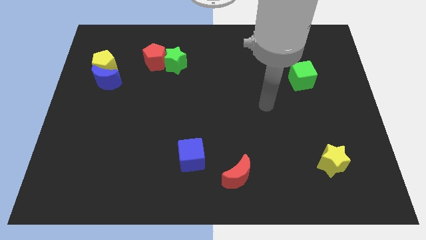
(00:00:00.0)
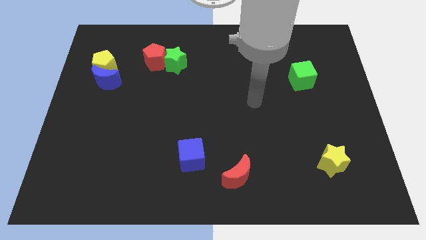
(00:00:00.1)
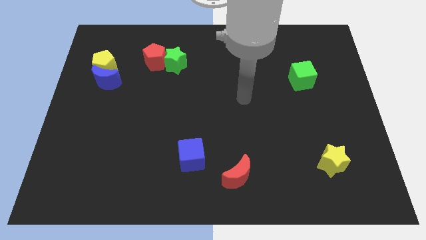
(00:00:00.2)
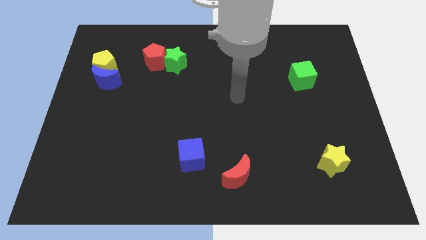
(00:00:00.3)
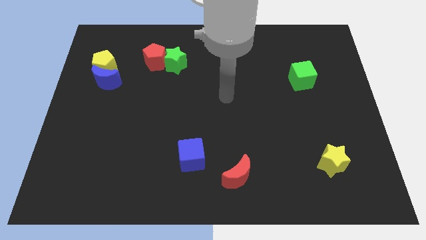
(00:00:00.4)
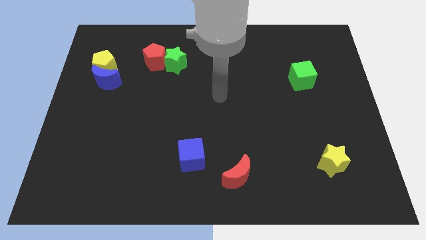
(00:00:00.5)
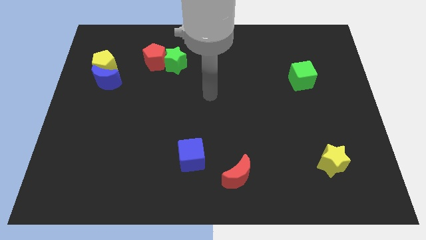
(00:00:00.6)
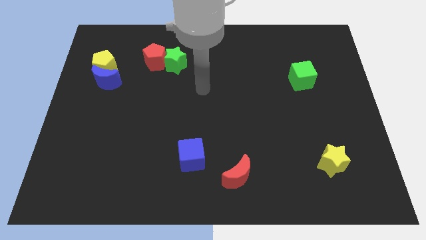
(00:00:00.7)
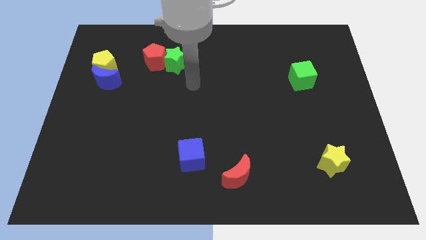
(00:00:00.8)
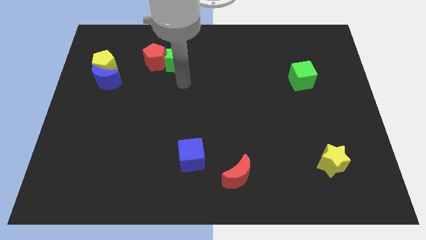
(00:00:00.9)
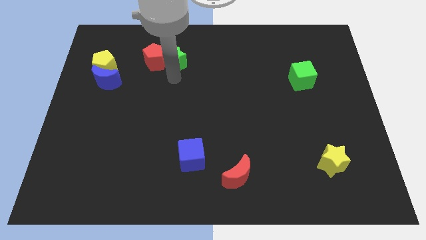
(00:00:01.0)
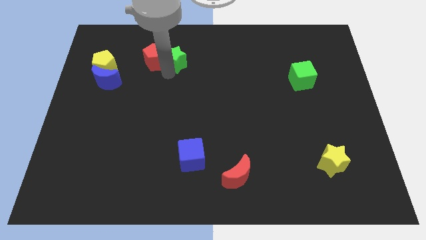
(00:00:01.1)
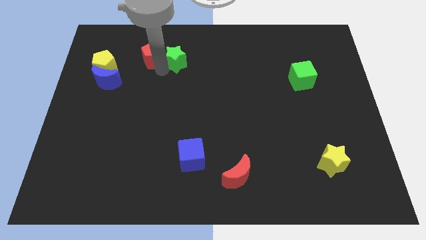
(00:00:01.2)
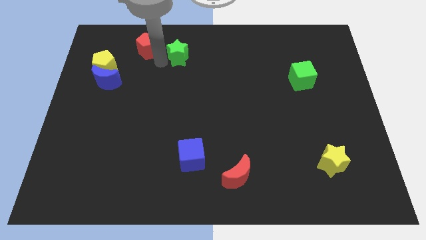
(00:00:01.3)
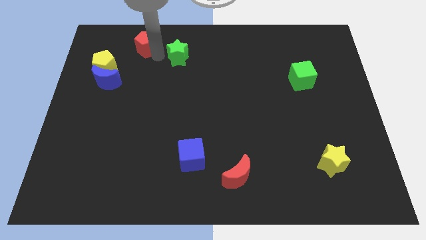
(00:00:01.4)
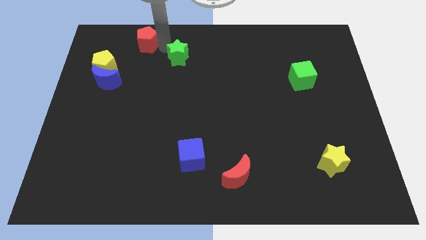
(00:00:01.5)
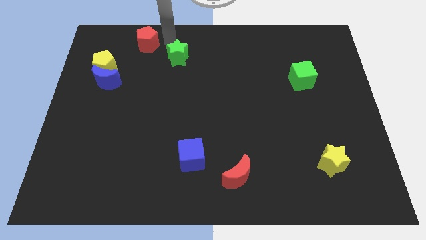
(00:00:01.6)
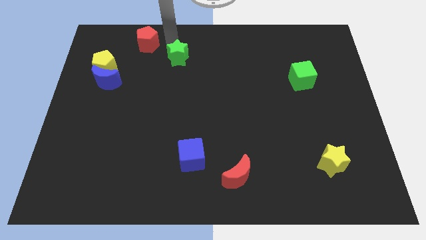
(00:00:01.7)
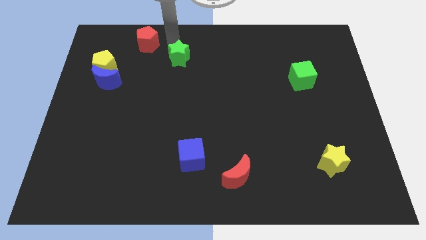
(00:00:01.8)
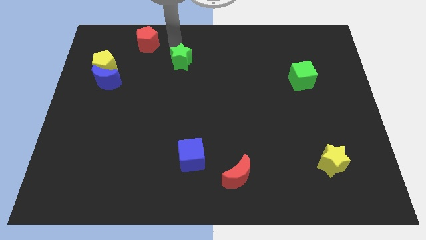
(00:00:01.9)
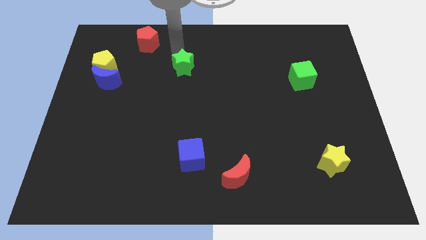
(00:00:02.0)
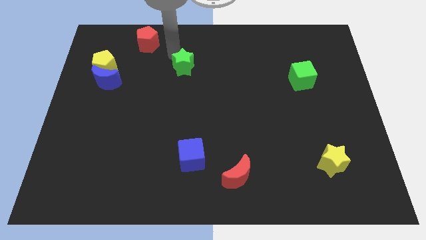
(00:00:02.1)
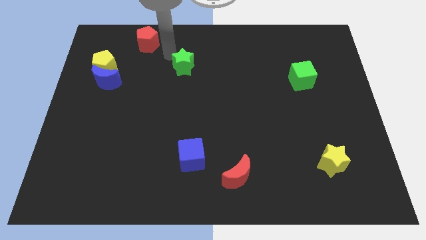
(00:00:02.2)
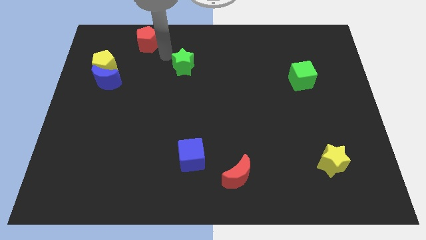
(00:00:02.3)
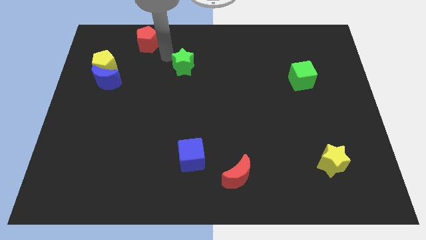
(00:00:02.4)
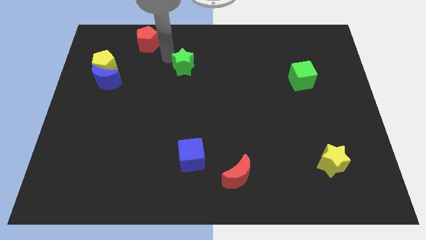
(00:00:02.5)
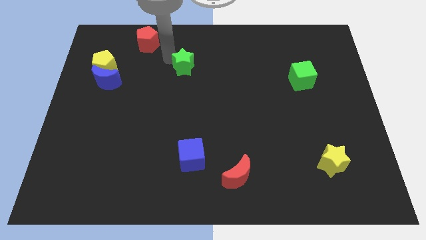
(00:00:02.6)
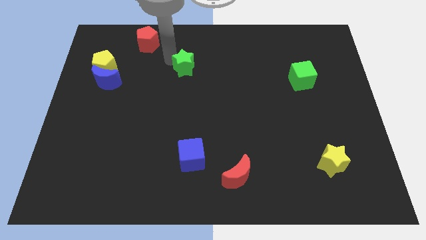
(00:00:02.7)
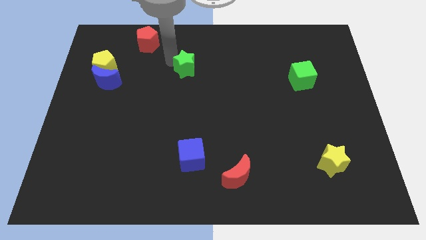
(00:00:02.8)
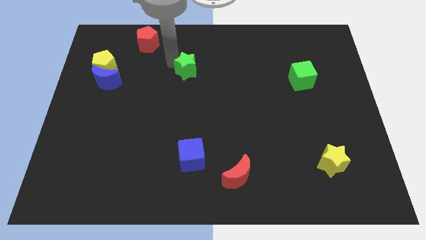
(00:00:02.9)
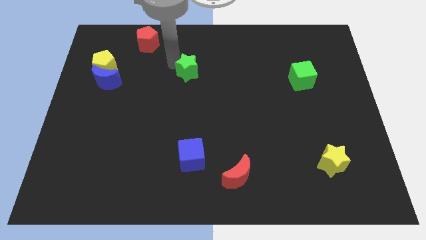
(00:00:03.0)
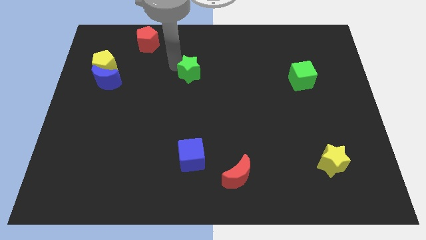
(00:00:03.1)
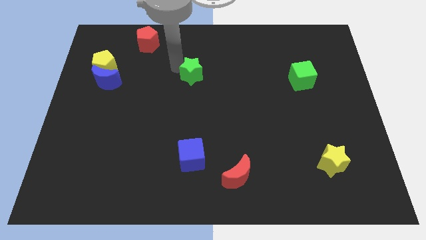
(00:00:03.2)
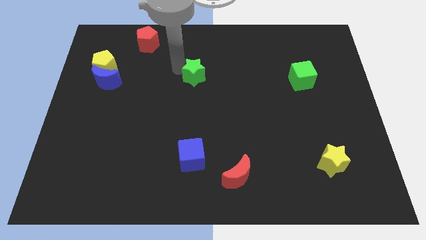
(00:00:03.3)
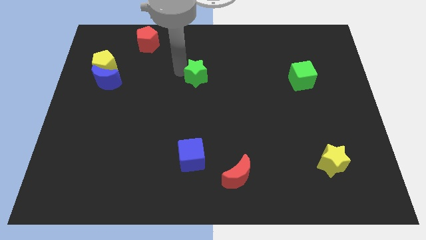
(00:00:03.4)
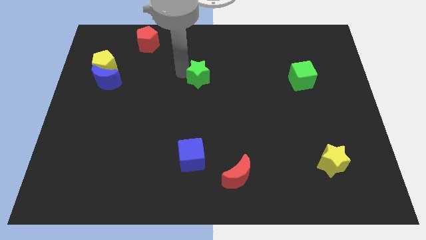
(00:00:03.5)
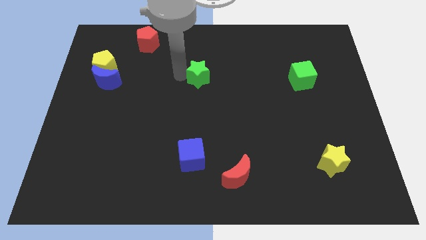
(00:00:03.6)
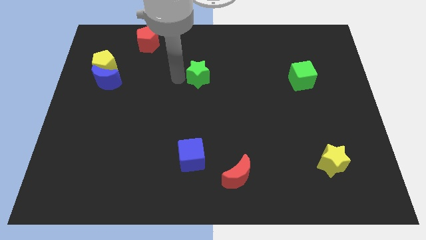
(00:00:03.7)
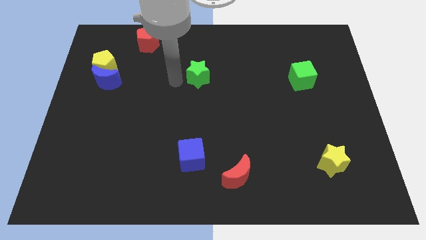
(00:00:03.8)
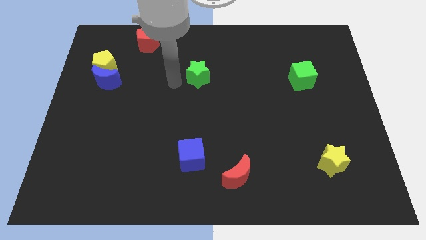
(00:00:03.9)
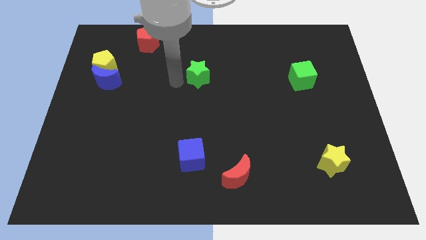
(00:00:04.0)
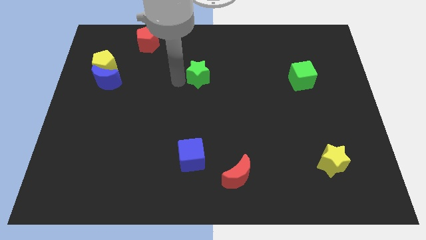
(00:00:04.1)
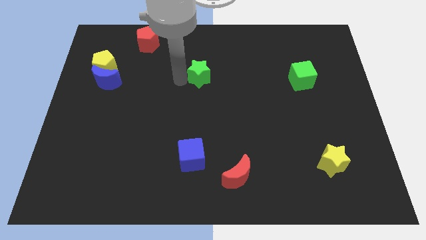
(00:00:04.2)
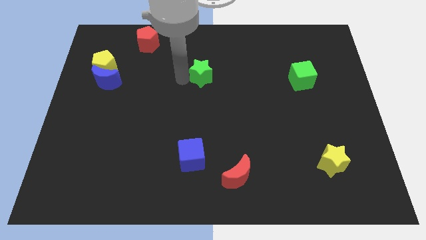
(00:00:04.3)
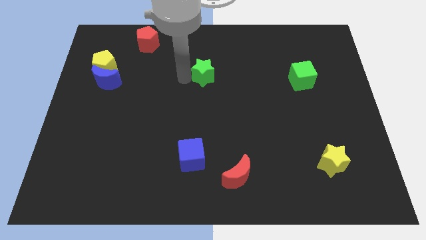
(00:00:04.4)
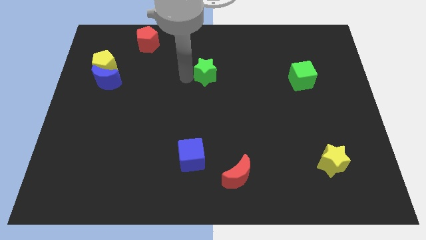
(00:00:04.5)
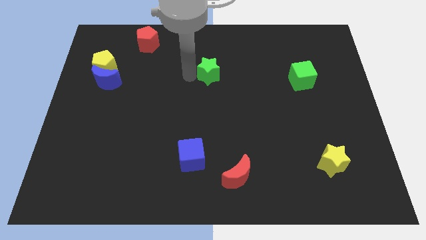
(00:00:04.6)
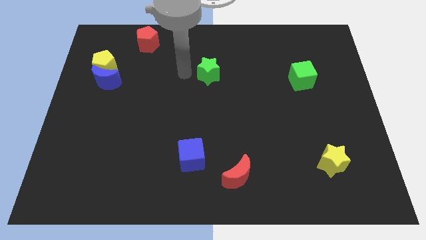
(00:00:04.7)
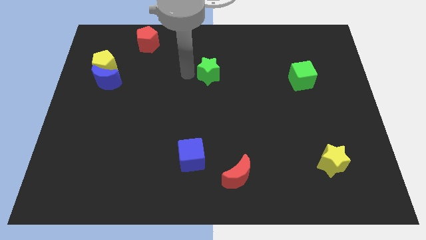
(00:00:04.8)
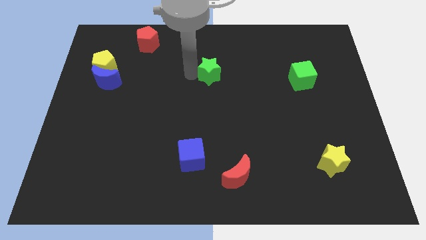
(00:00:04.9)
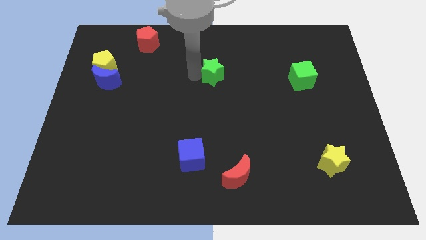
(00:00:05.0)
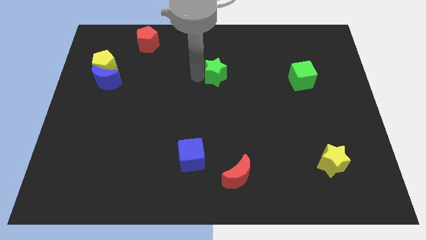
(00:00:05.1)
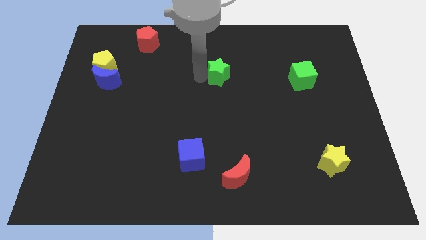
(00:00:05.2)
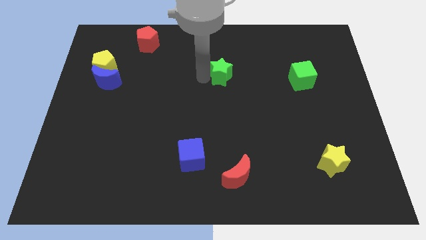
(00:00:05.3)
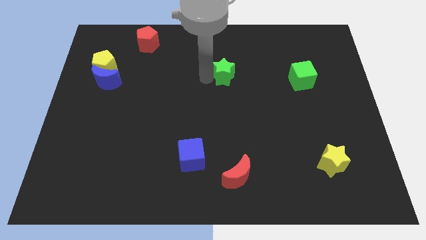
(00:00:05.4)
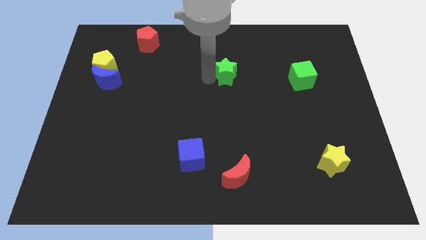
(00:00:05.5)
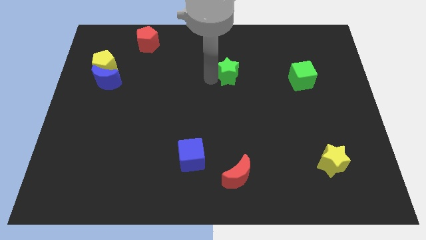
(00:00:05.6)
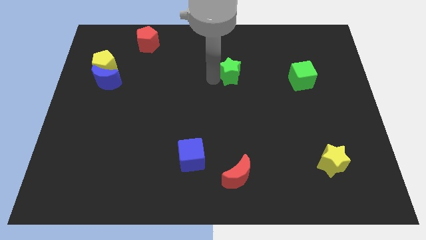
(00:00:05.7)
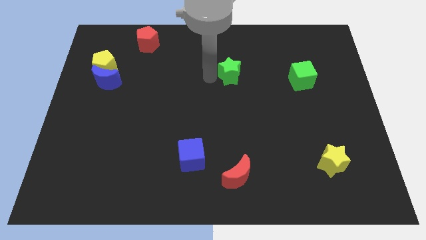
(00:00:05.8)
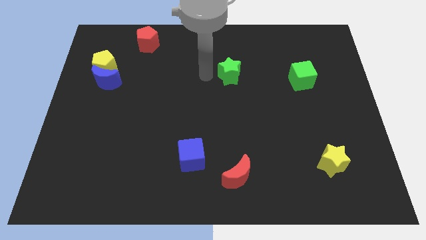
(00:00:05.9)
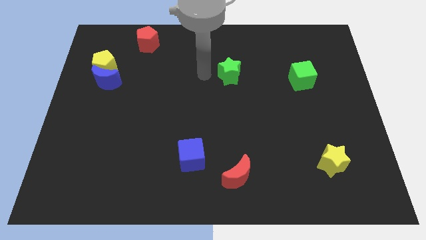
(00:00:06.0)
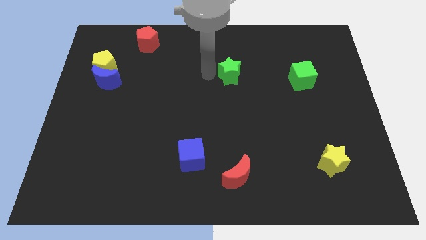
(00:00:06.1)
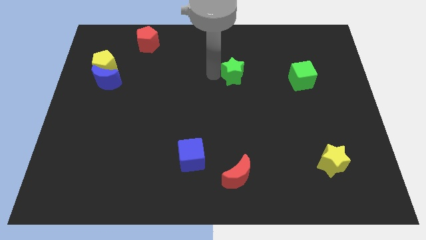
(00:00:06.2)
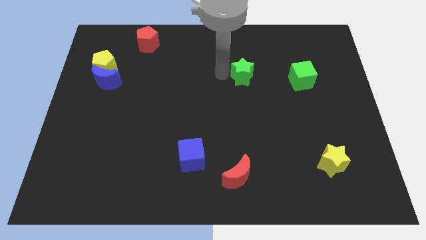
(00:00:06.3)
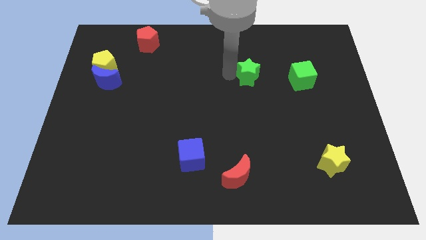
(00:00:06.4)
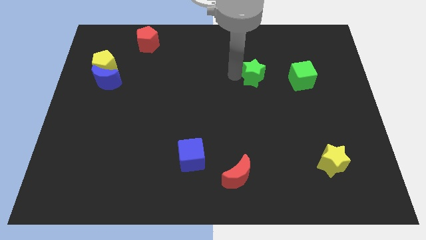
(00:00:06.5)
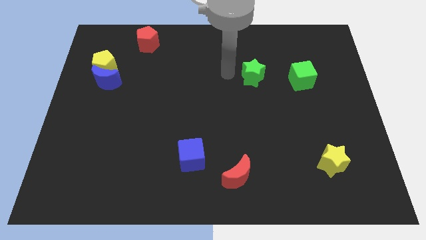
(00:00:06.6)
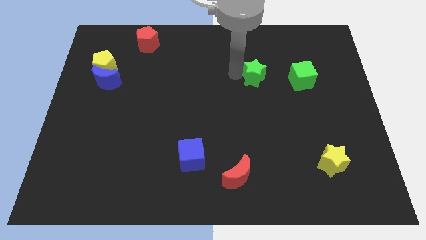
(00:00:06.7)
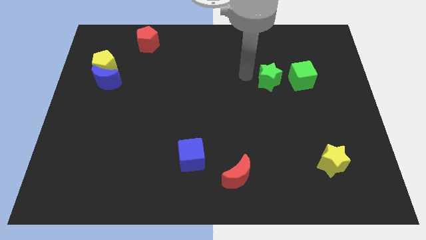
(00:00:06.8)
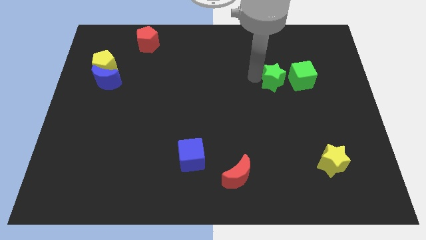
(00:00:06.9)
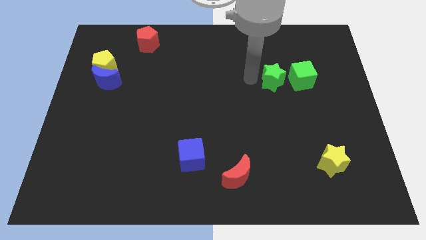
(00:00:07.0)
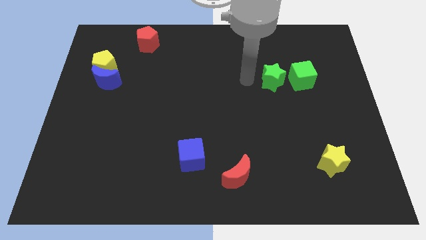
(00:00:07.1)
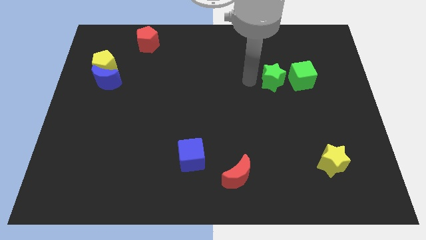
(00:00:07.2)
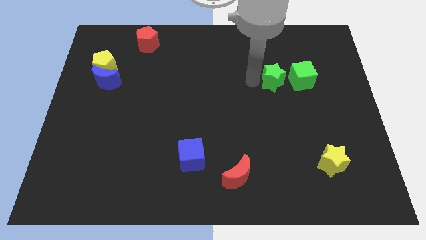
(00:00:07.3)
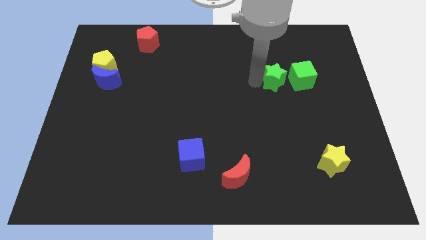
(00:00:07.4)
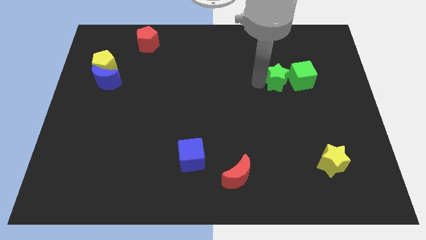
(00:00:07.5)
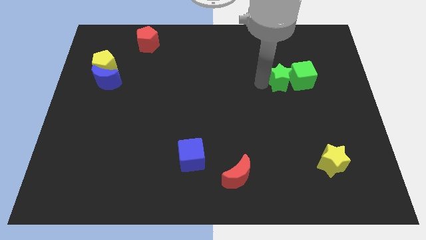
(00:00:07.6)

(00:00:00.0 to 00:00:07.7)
put the green star to the green cube

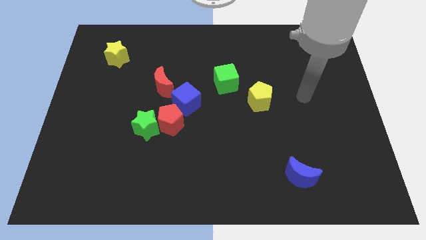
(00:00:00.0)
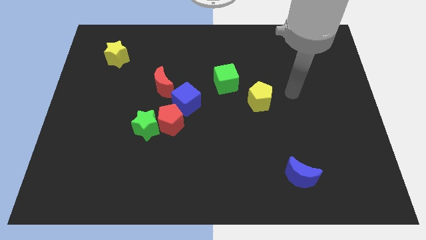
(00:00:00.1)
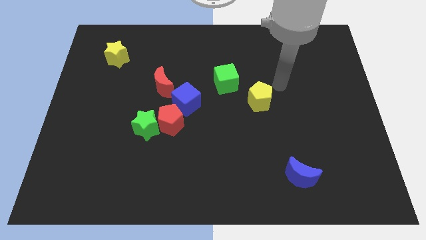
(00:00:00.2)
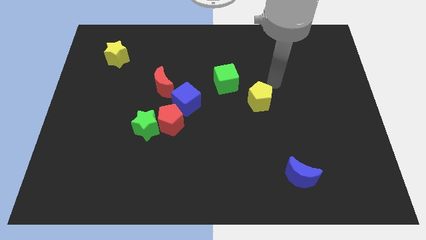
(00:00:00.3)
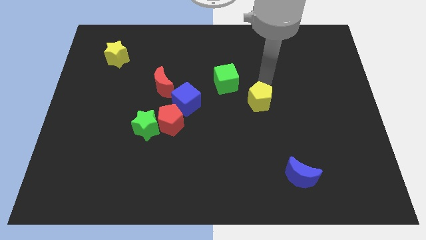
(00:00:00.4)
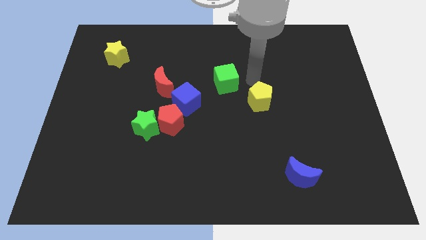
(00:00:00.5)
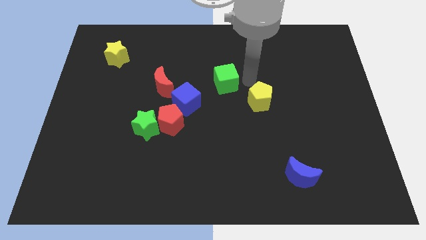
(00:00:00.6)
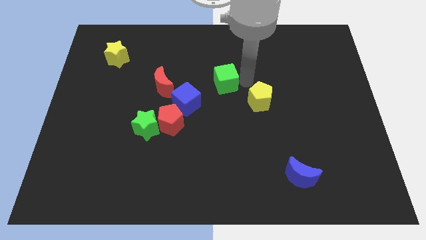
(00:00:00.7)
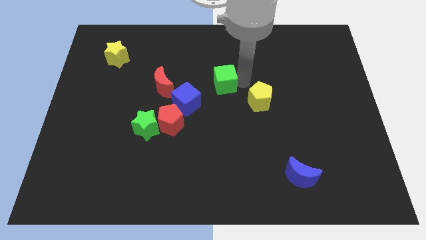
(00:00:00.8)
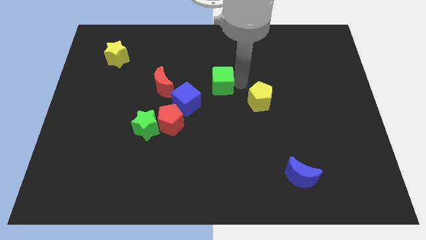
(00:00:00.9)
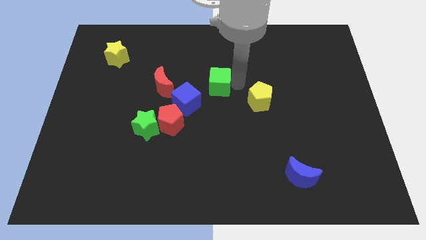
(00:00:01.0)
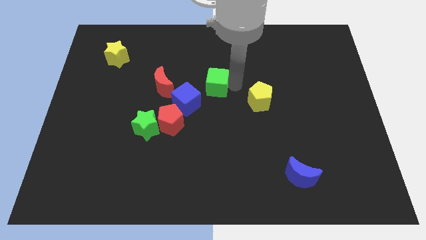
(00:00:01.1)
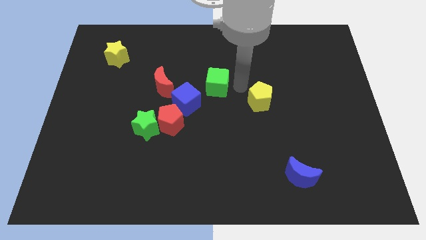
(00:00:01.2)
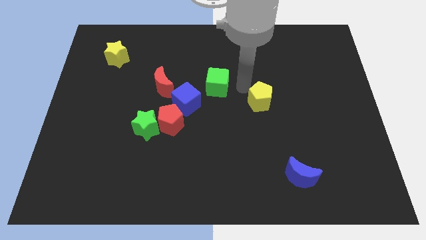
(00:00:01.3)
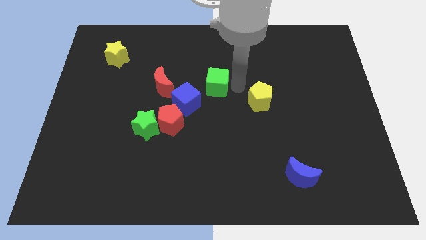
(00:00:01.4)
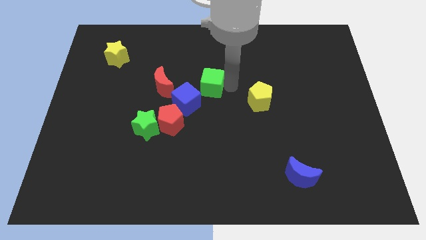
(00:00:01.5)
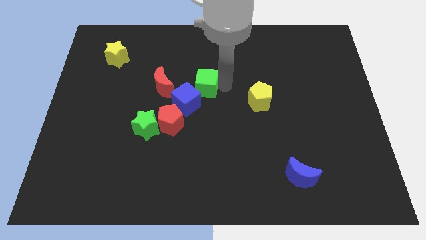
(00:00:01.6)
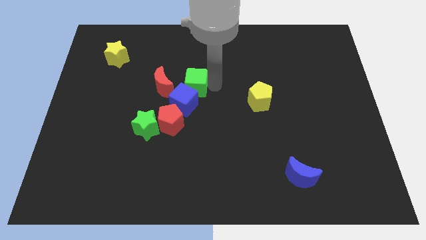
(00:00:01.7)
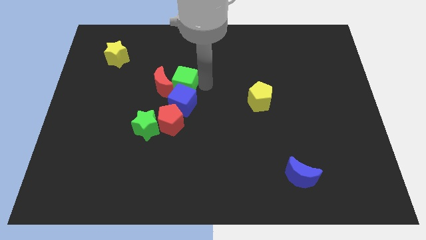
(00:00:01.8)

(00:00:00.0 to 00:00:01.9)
move the green cube towards the red moon
